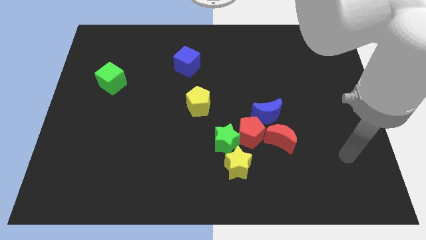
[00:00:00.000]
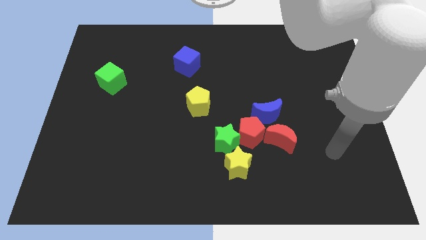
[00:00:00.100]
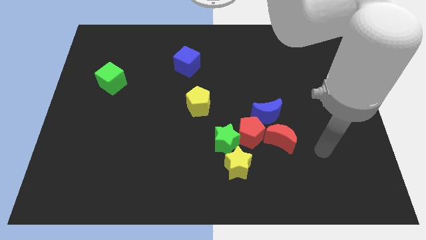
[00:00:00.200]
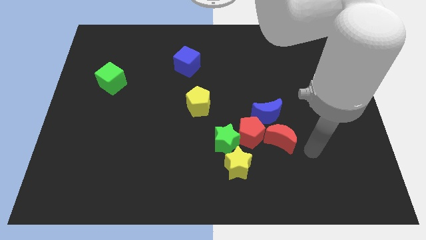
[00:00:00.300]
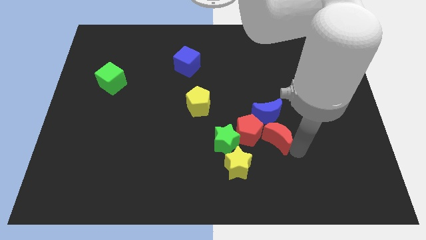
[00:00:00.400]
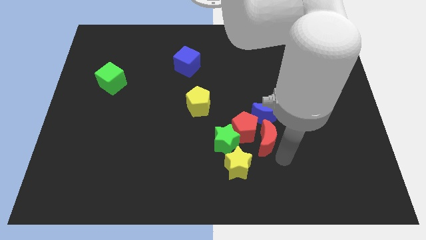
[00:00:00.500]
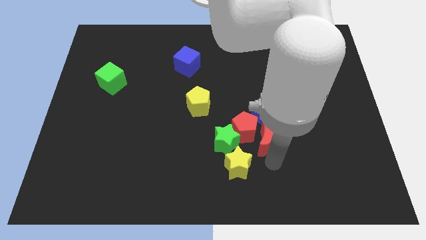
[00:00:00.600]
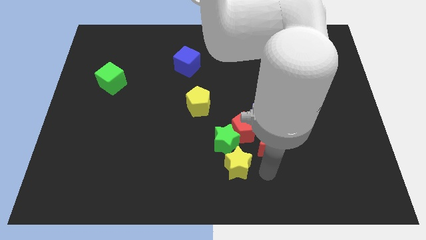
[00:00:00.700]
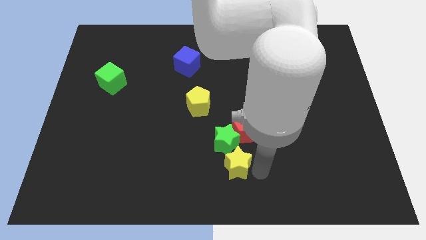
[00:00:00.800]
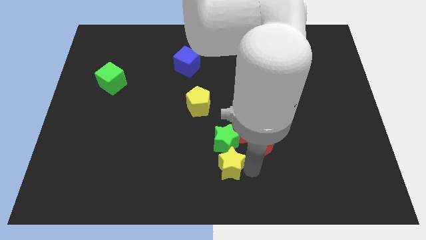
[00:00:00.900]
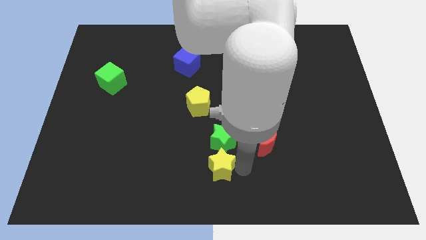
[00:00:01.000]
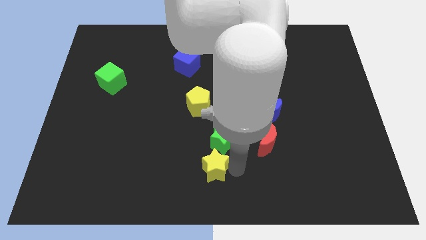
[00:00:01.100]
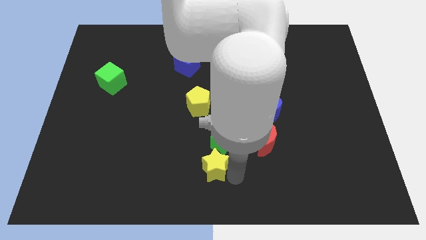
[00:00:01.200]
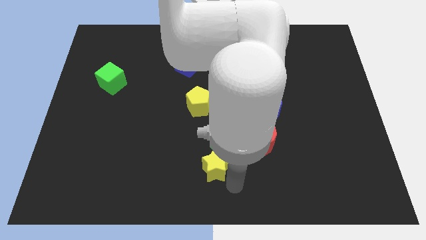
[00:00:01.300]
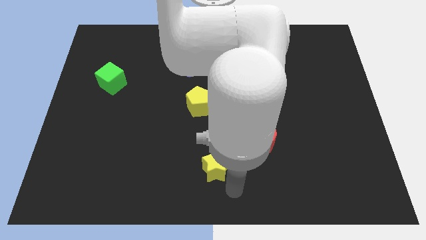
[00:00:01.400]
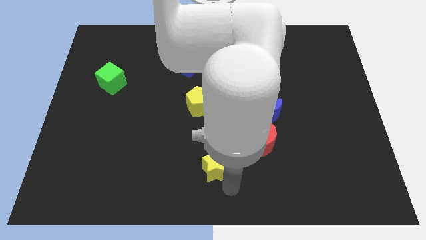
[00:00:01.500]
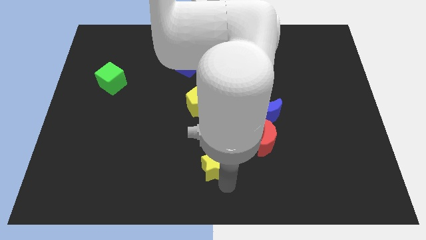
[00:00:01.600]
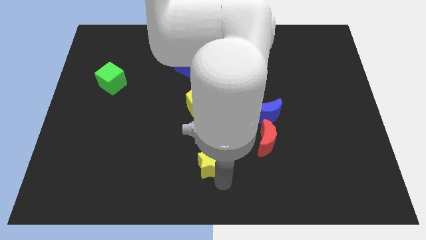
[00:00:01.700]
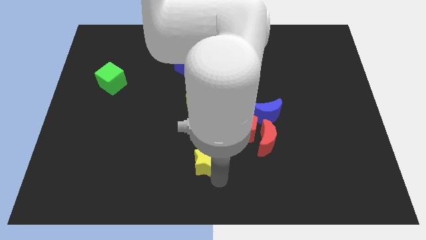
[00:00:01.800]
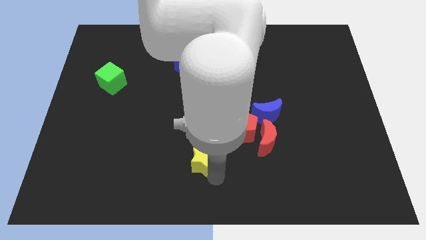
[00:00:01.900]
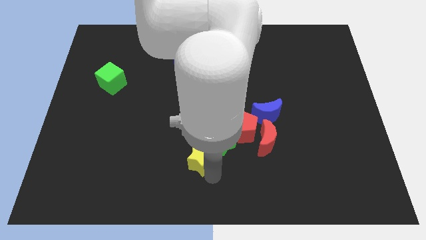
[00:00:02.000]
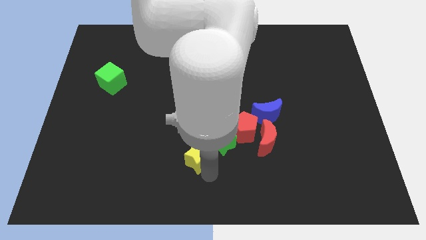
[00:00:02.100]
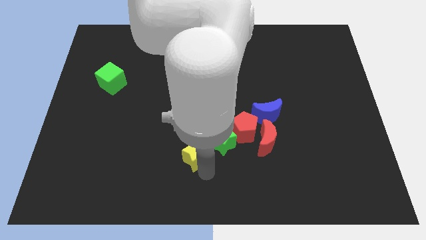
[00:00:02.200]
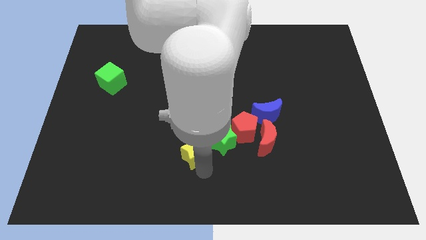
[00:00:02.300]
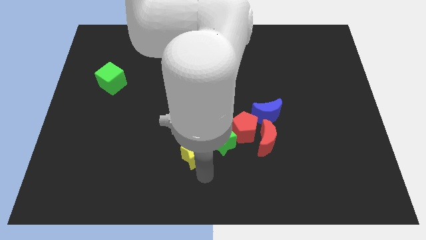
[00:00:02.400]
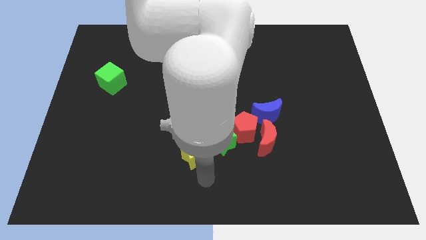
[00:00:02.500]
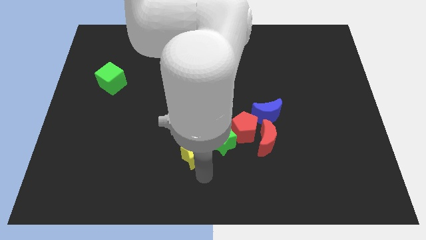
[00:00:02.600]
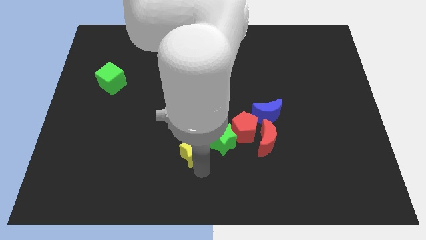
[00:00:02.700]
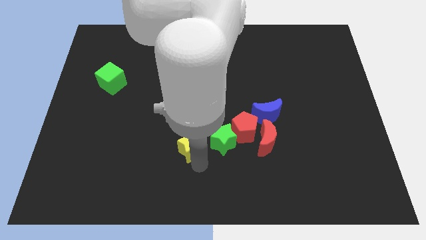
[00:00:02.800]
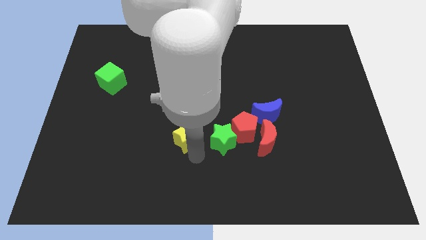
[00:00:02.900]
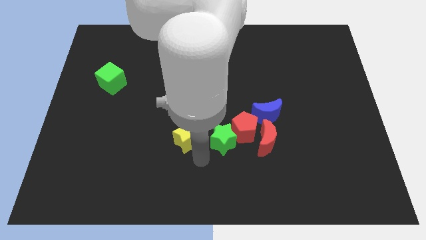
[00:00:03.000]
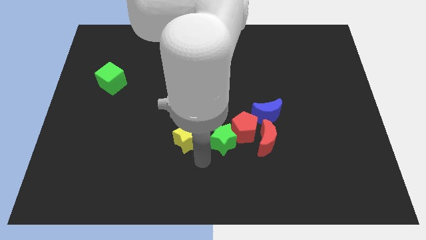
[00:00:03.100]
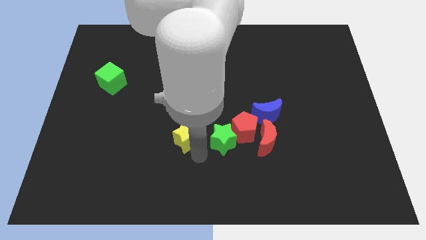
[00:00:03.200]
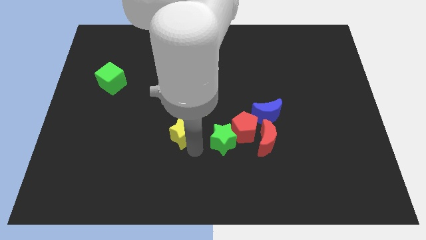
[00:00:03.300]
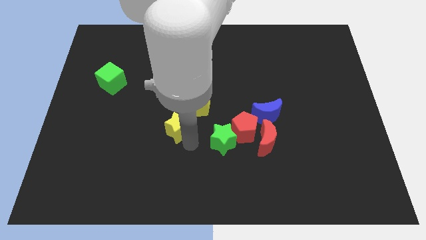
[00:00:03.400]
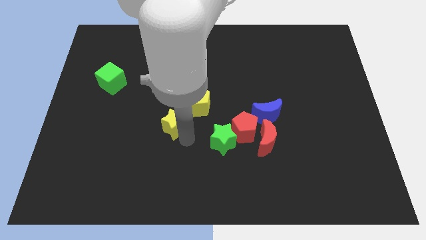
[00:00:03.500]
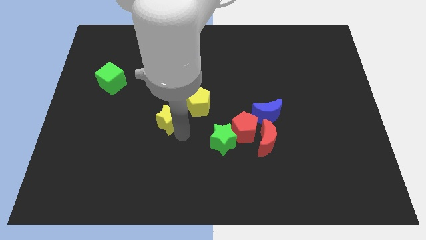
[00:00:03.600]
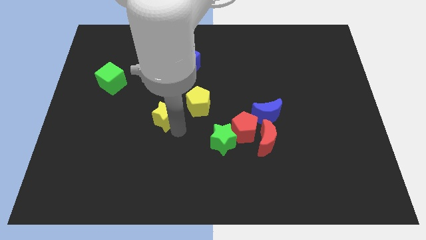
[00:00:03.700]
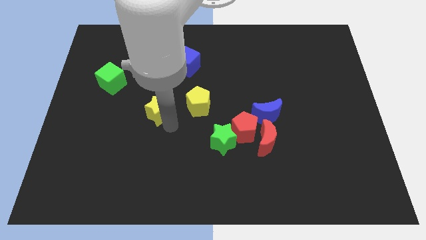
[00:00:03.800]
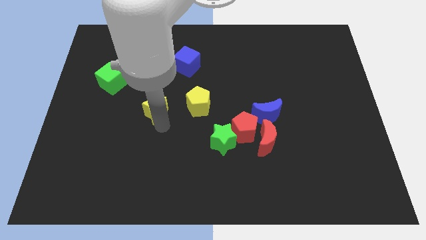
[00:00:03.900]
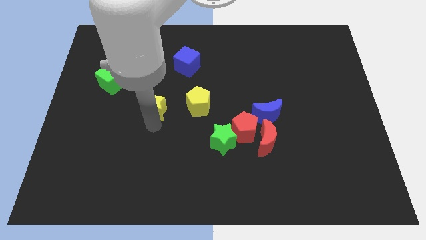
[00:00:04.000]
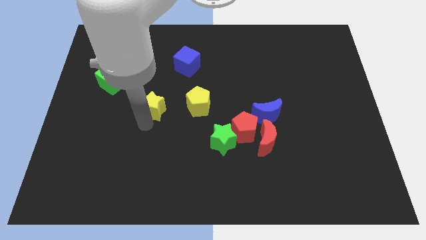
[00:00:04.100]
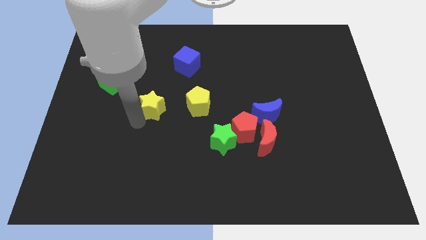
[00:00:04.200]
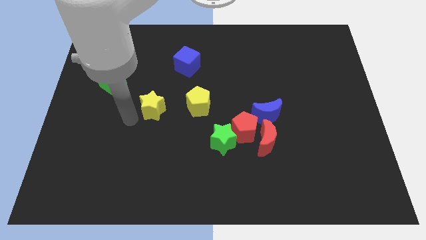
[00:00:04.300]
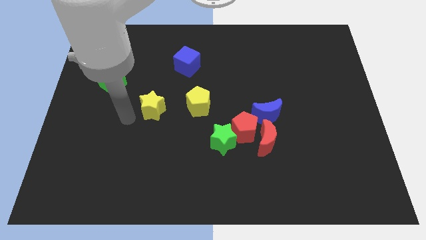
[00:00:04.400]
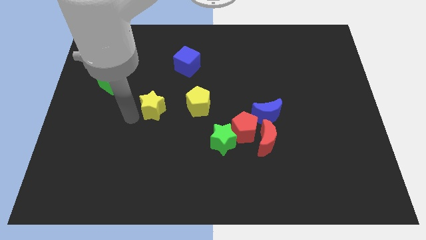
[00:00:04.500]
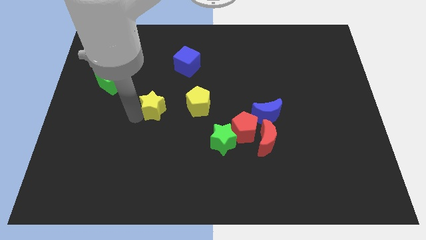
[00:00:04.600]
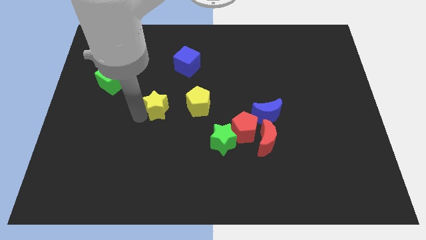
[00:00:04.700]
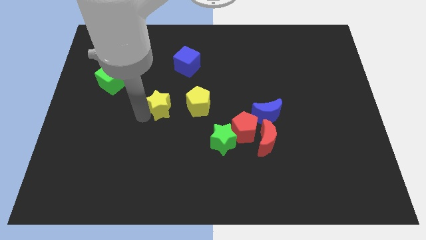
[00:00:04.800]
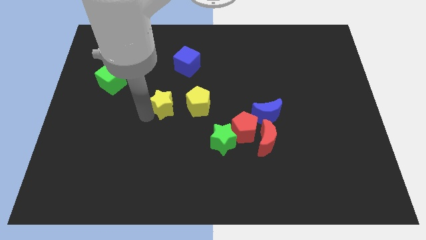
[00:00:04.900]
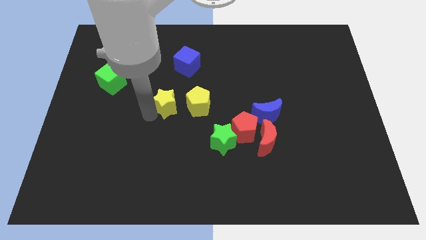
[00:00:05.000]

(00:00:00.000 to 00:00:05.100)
slide the yellow star to the bottom of the blue cube

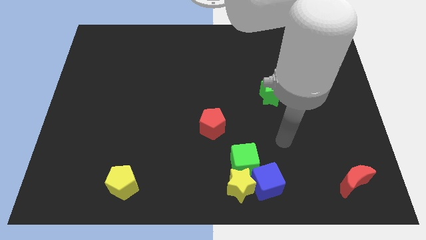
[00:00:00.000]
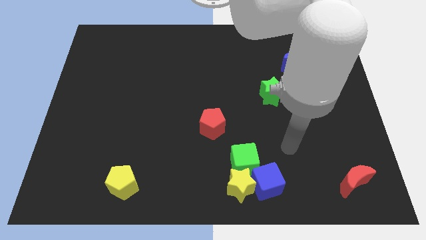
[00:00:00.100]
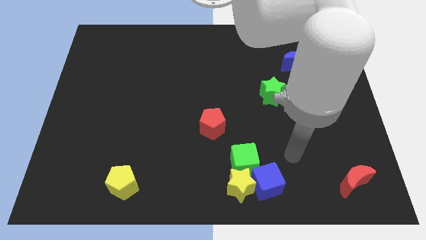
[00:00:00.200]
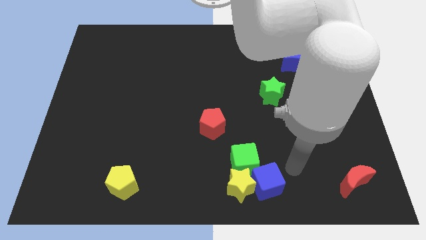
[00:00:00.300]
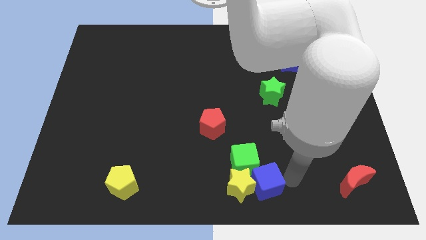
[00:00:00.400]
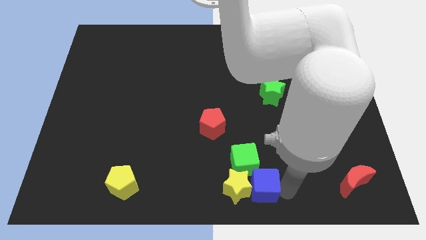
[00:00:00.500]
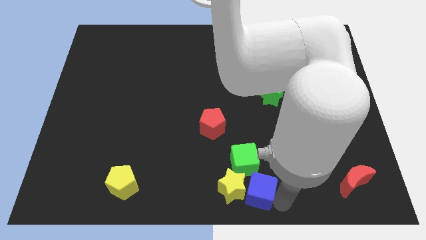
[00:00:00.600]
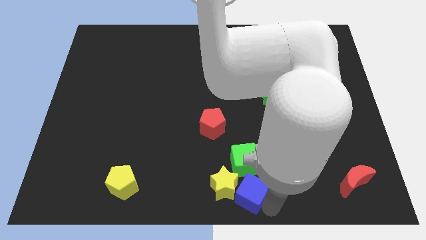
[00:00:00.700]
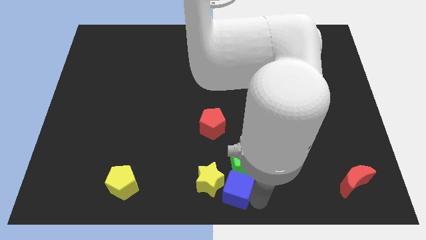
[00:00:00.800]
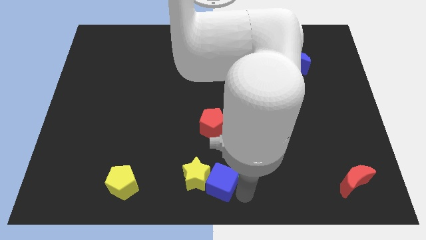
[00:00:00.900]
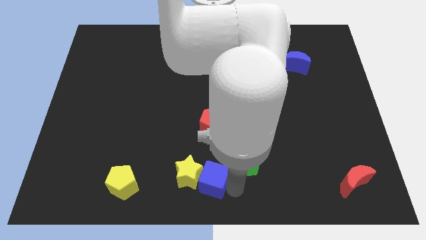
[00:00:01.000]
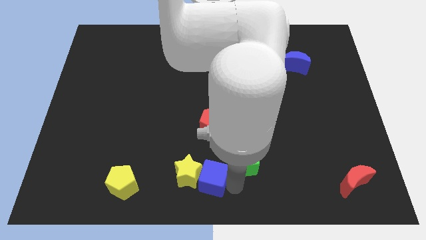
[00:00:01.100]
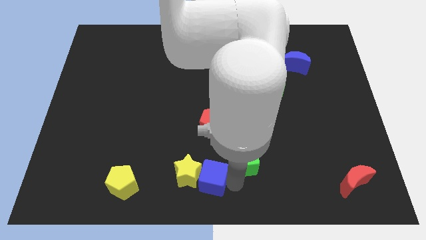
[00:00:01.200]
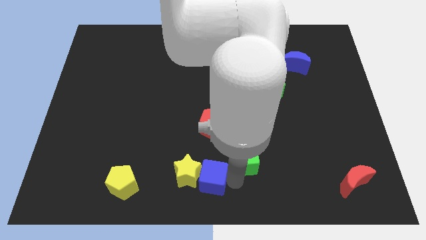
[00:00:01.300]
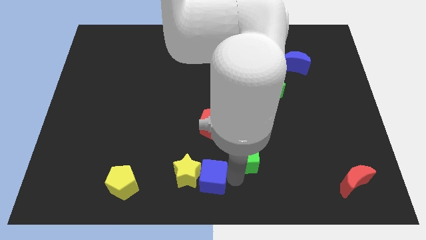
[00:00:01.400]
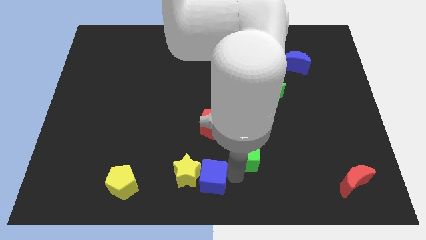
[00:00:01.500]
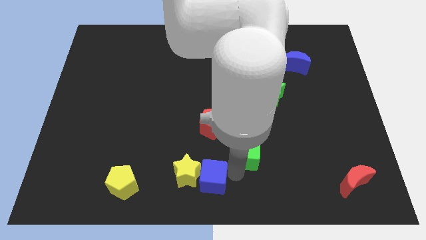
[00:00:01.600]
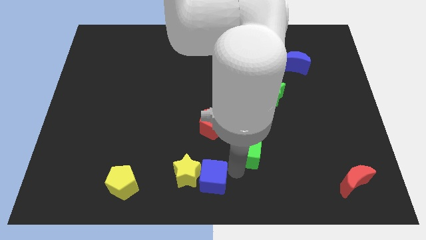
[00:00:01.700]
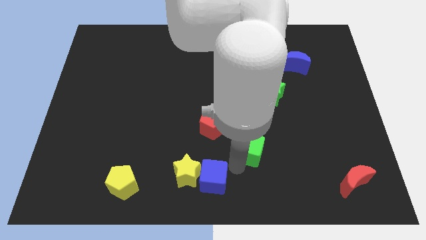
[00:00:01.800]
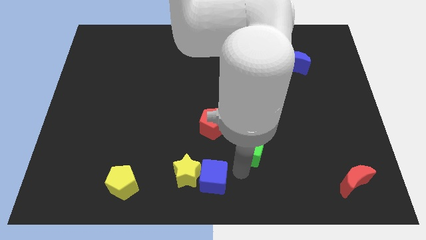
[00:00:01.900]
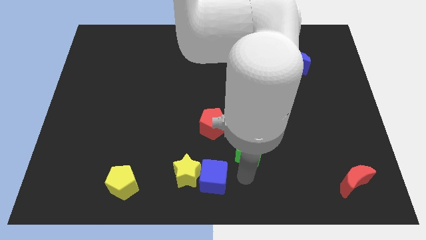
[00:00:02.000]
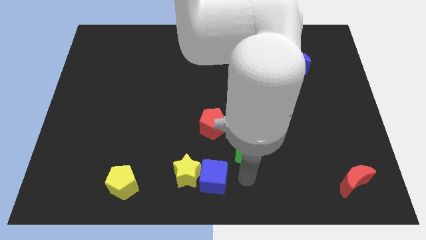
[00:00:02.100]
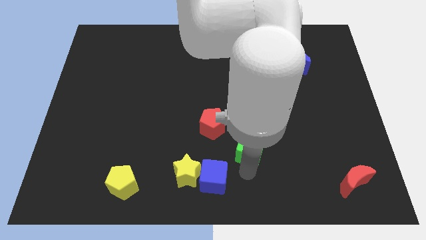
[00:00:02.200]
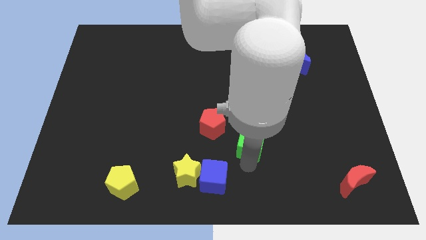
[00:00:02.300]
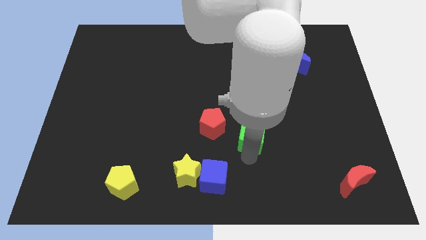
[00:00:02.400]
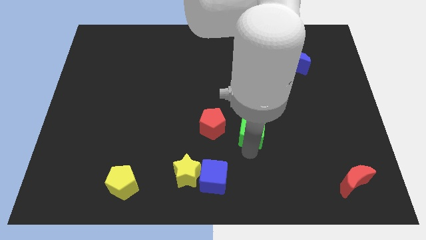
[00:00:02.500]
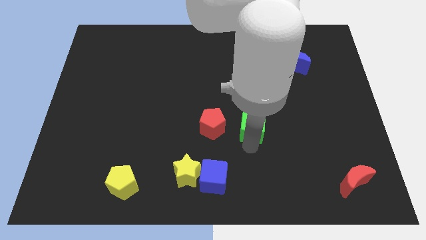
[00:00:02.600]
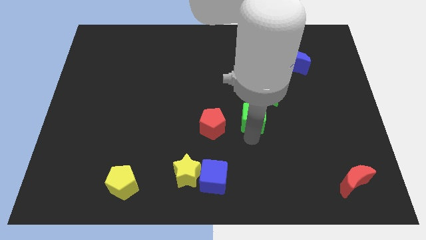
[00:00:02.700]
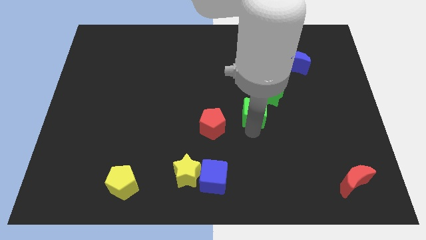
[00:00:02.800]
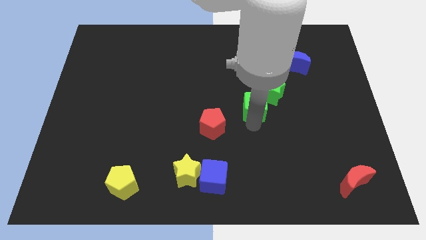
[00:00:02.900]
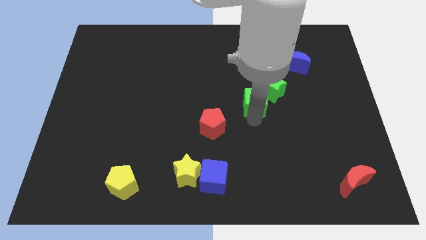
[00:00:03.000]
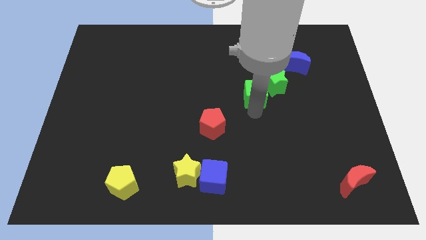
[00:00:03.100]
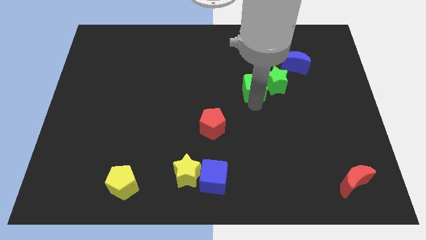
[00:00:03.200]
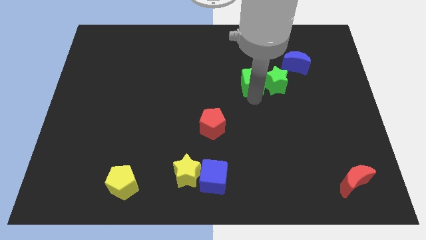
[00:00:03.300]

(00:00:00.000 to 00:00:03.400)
move the green cube to the top left side of the green star
